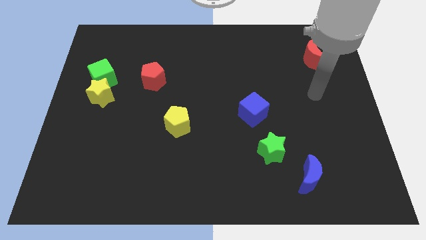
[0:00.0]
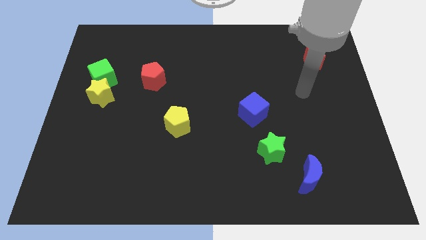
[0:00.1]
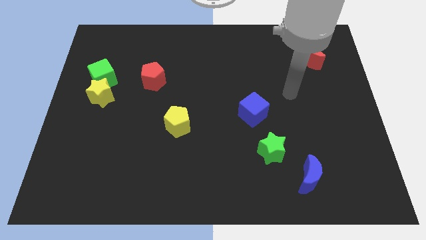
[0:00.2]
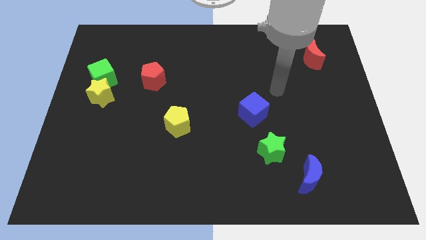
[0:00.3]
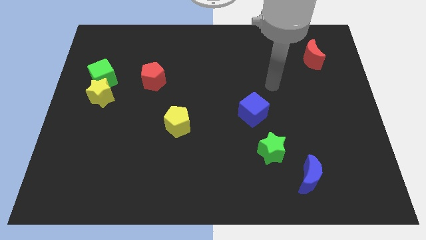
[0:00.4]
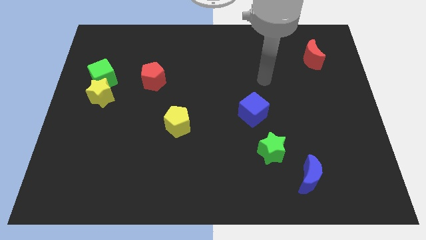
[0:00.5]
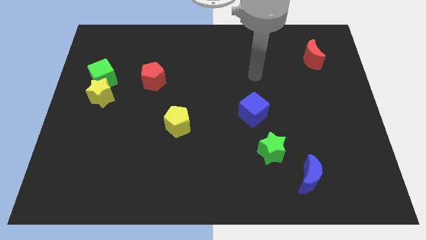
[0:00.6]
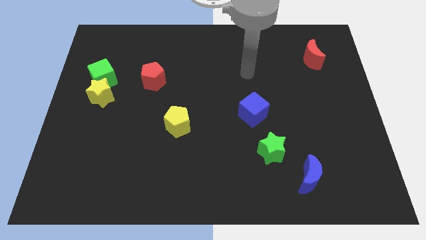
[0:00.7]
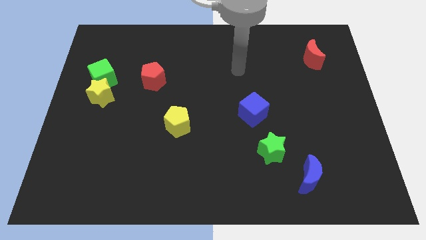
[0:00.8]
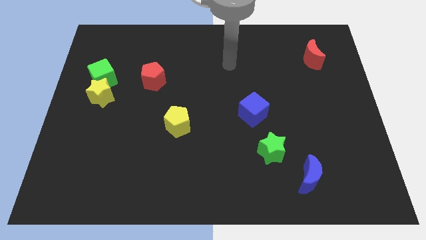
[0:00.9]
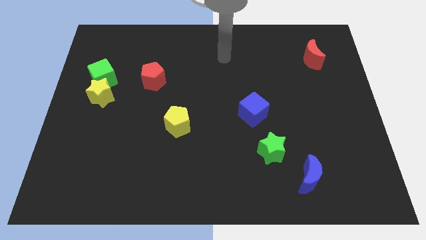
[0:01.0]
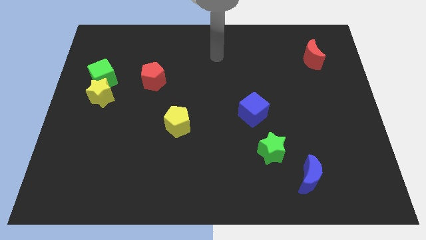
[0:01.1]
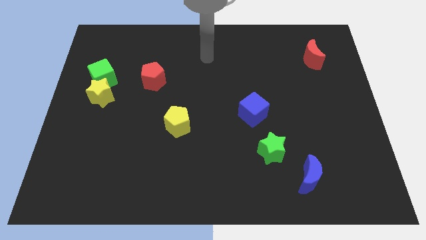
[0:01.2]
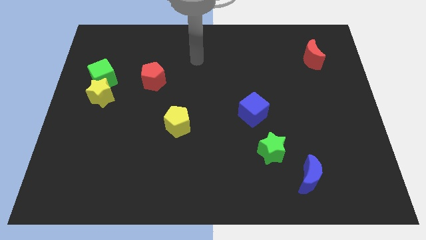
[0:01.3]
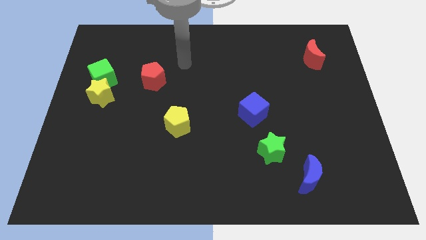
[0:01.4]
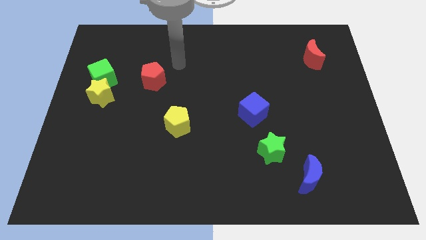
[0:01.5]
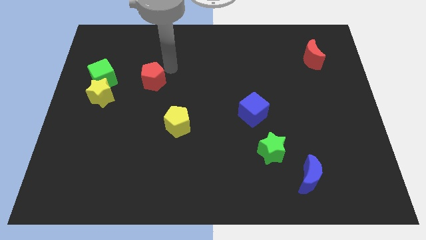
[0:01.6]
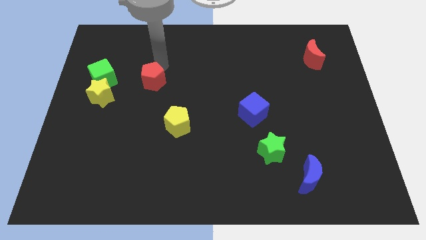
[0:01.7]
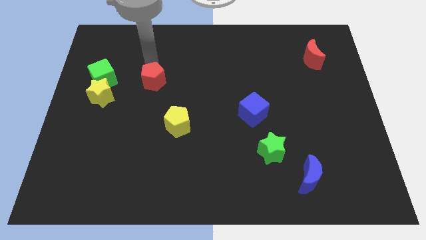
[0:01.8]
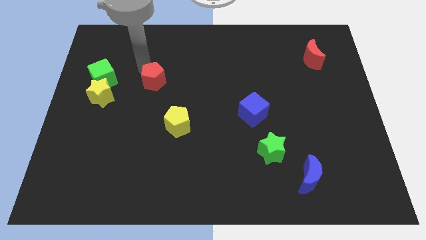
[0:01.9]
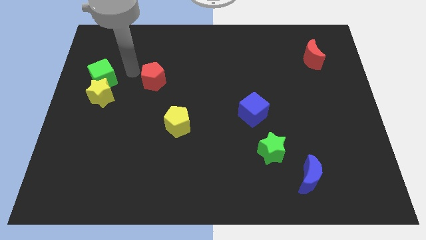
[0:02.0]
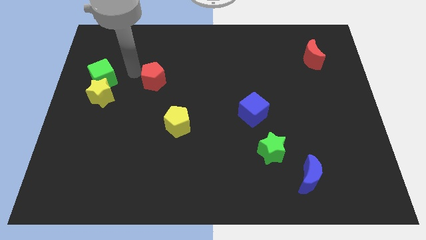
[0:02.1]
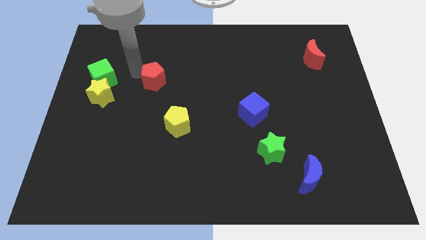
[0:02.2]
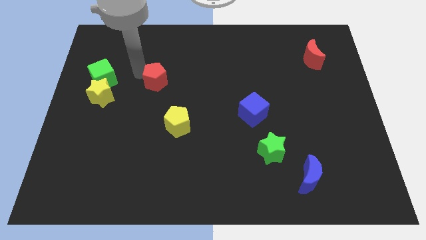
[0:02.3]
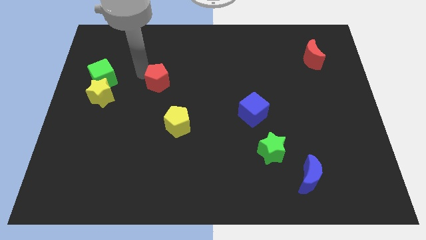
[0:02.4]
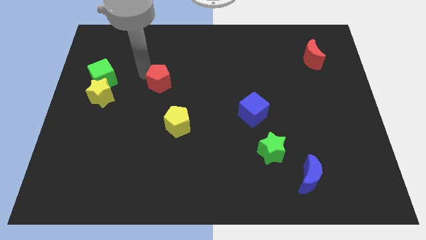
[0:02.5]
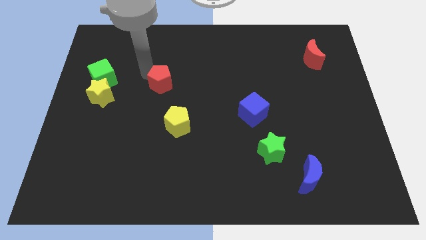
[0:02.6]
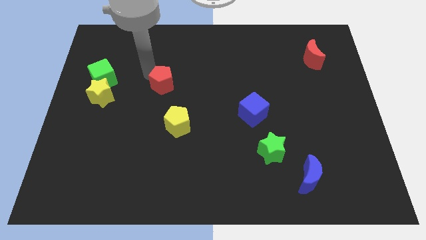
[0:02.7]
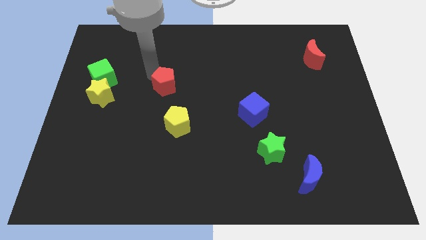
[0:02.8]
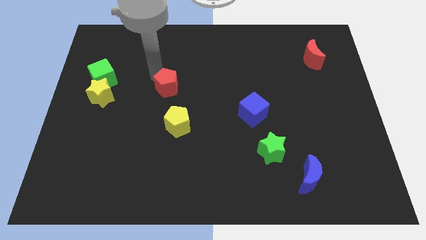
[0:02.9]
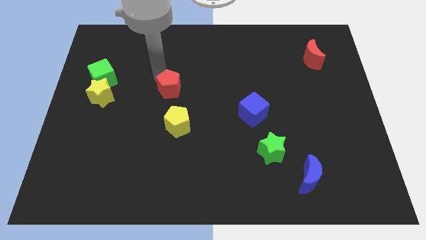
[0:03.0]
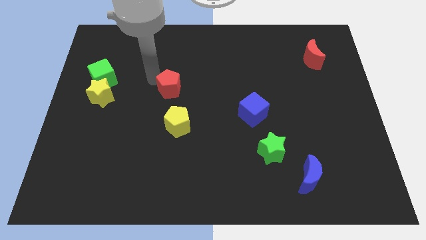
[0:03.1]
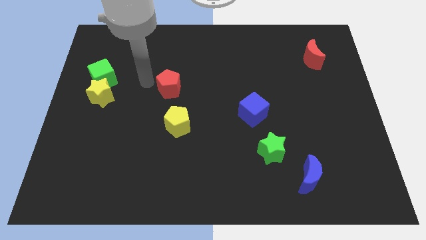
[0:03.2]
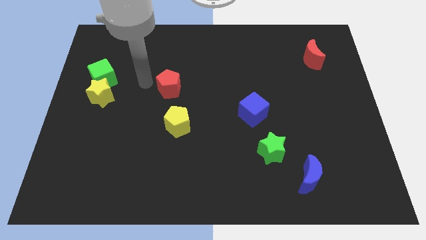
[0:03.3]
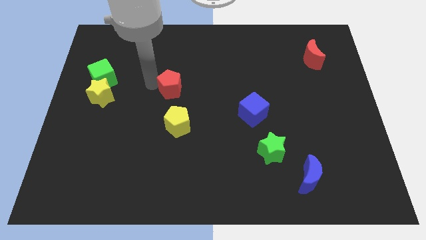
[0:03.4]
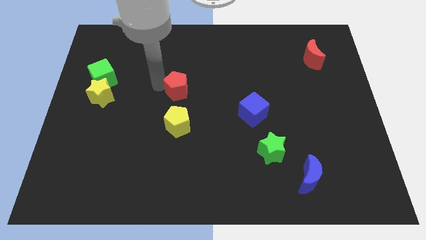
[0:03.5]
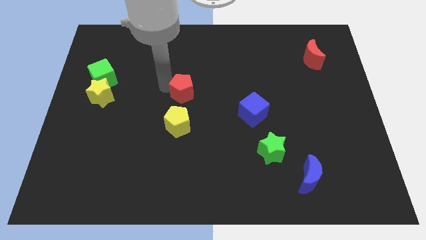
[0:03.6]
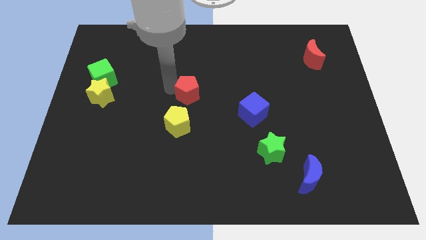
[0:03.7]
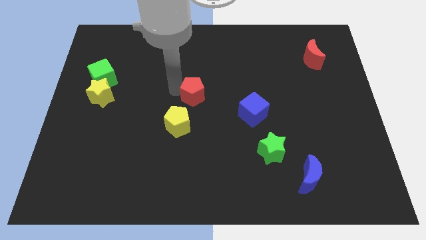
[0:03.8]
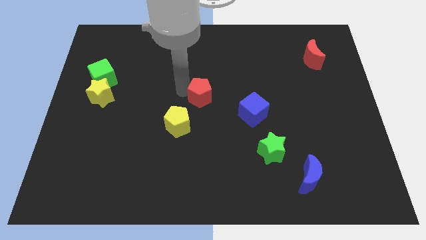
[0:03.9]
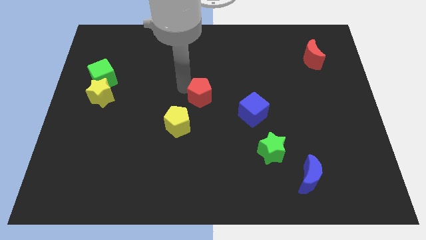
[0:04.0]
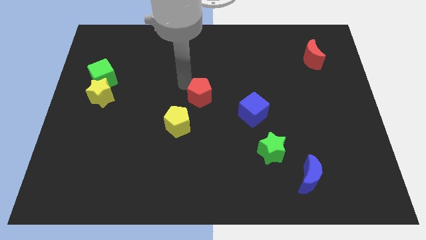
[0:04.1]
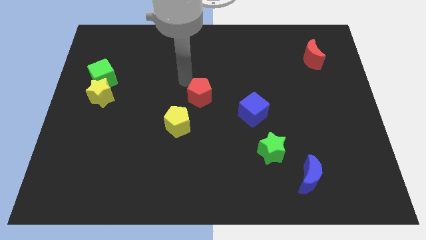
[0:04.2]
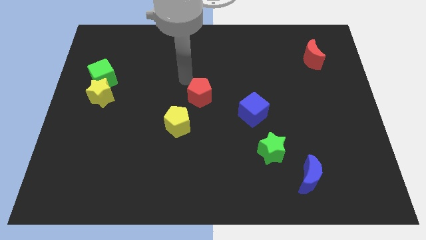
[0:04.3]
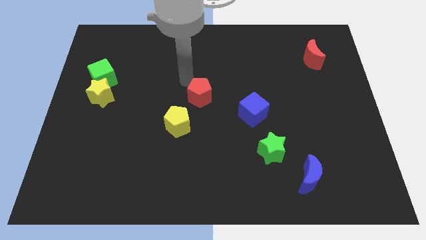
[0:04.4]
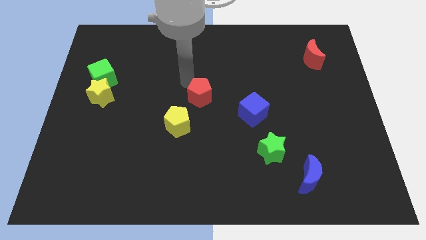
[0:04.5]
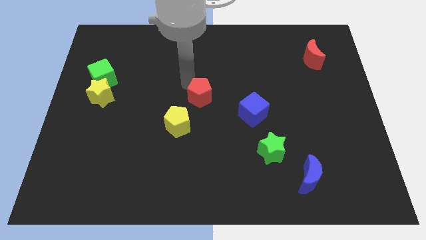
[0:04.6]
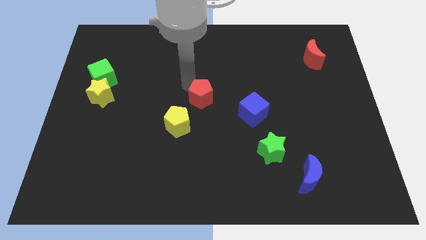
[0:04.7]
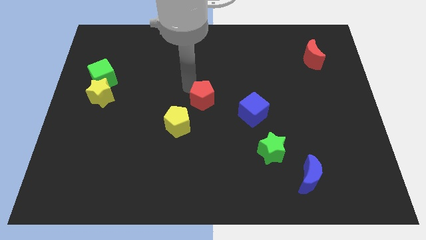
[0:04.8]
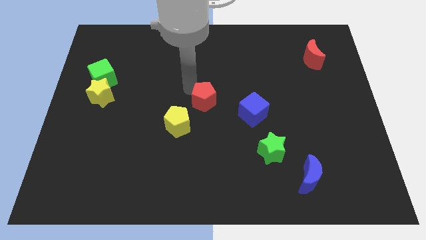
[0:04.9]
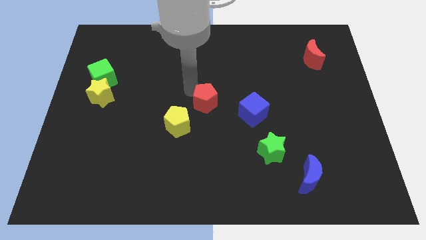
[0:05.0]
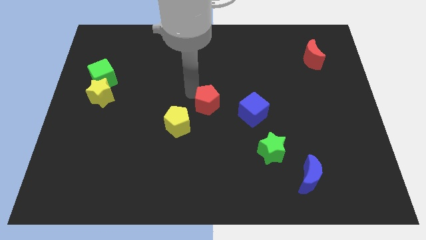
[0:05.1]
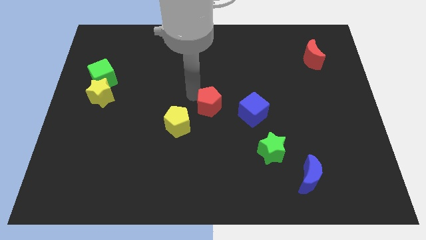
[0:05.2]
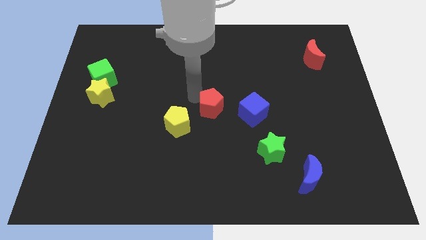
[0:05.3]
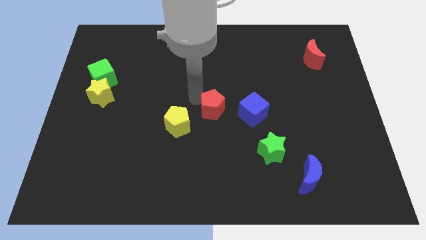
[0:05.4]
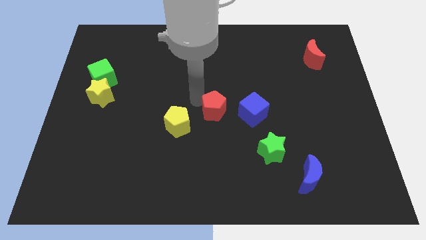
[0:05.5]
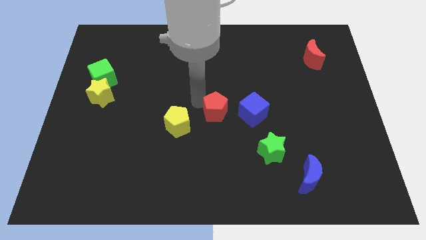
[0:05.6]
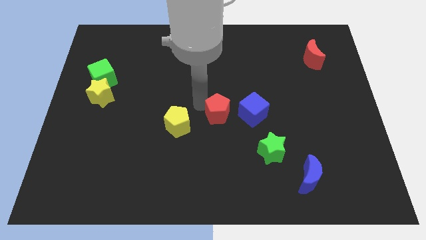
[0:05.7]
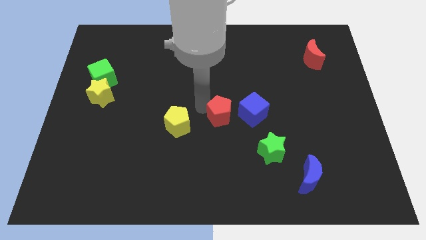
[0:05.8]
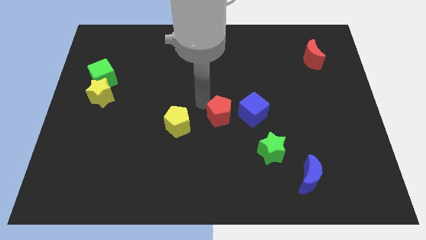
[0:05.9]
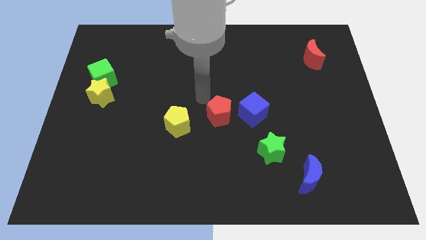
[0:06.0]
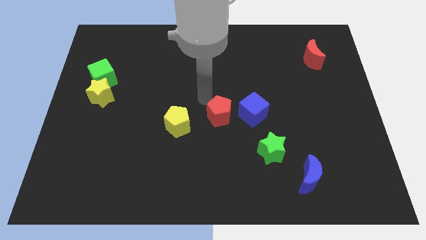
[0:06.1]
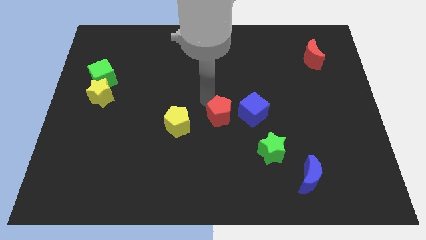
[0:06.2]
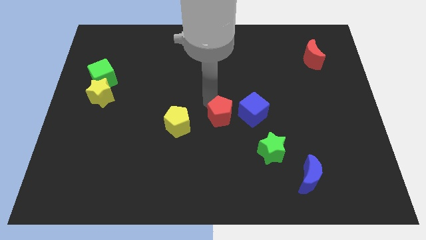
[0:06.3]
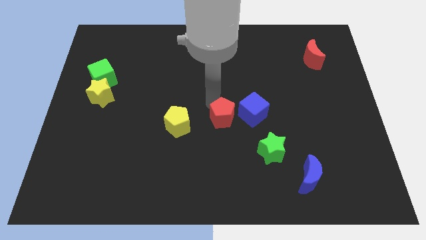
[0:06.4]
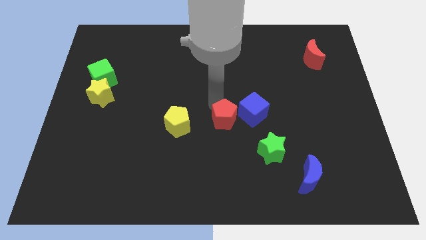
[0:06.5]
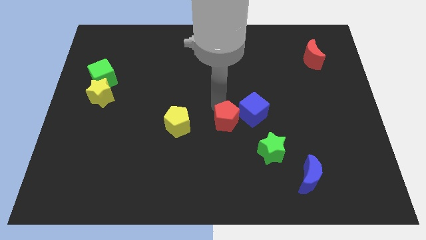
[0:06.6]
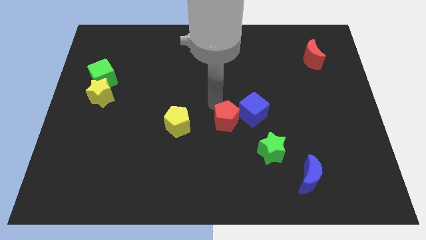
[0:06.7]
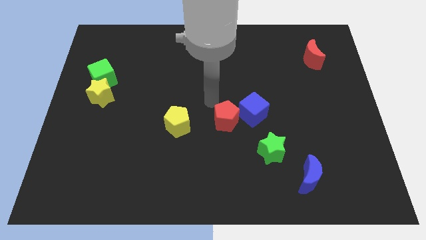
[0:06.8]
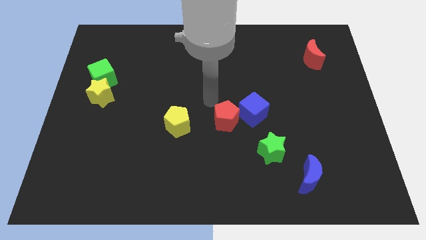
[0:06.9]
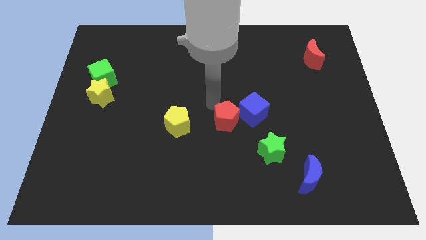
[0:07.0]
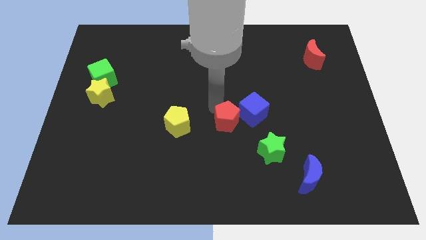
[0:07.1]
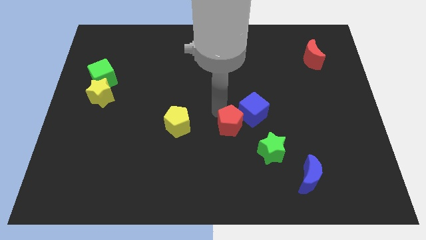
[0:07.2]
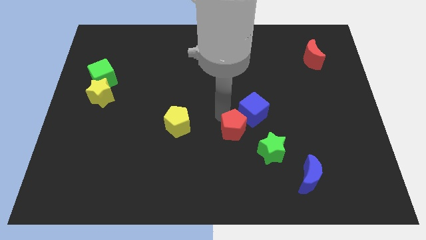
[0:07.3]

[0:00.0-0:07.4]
put the red pentagon to the bottom of the blue cube
